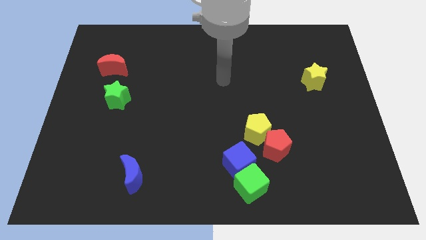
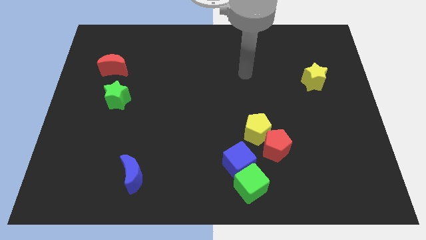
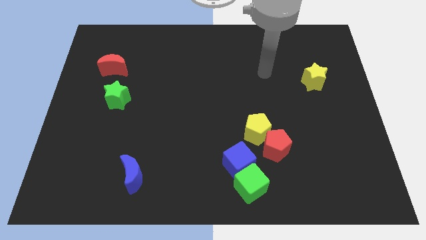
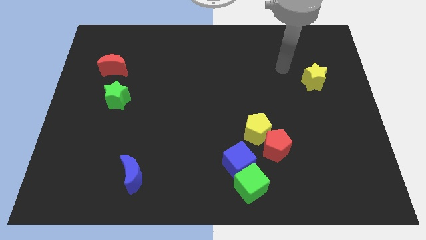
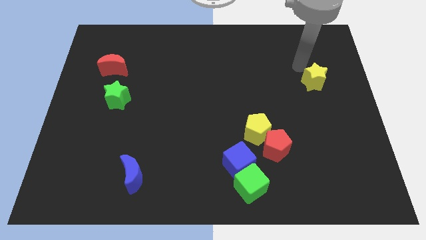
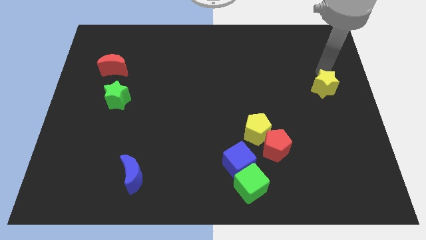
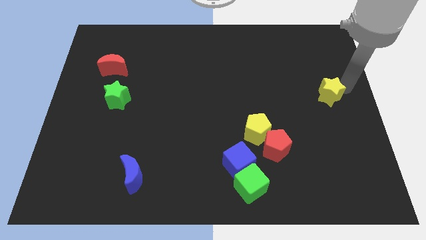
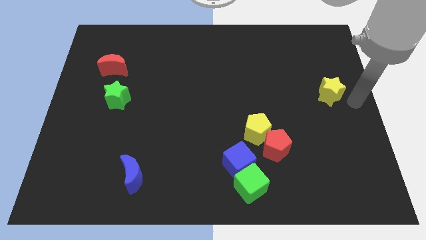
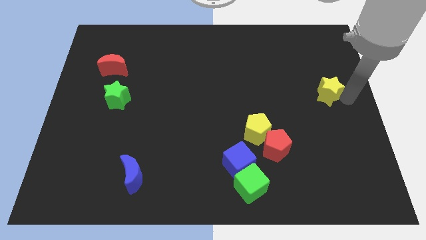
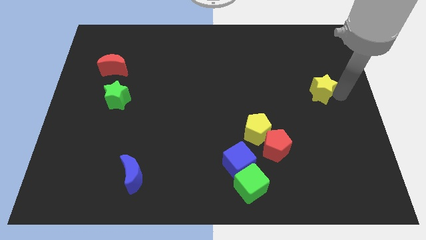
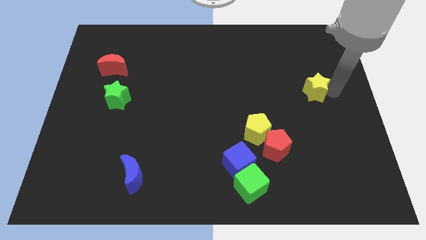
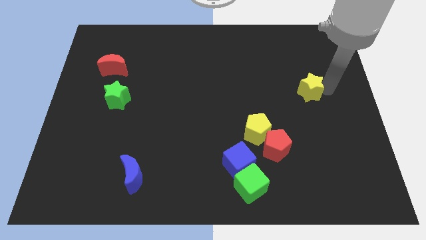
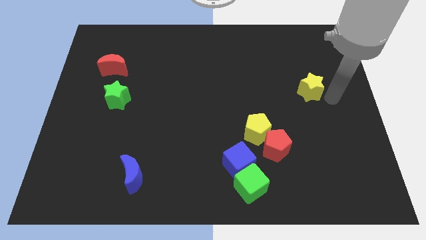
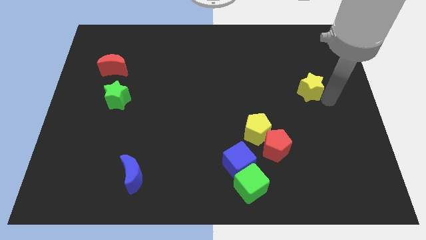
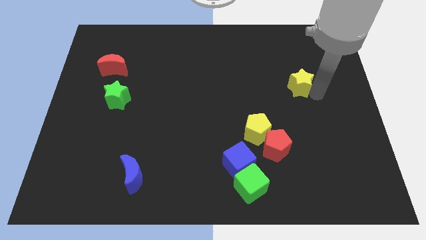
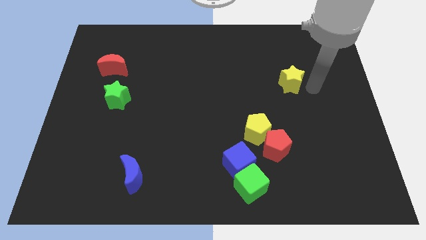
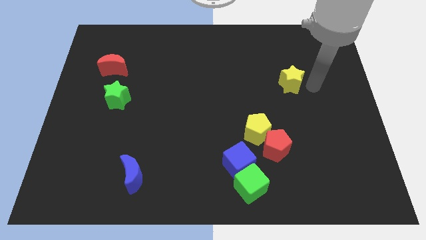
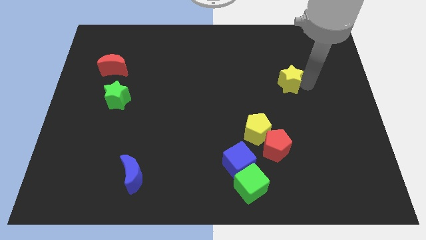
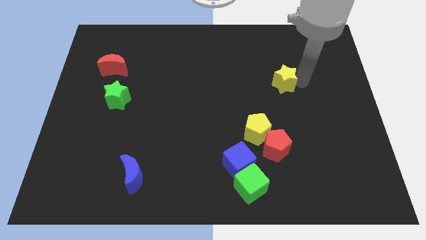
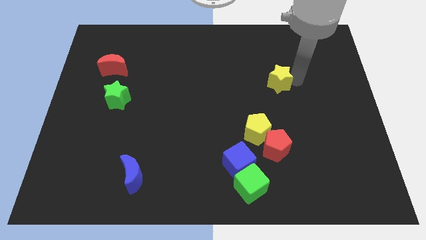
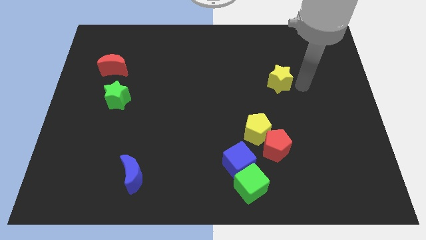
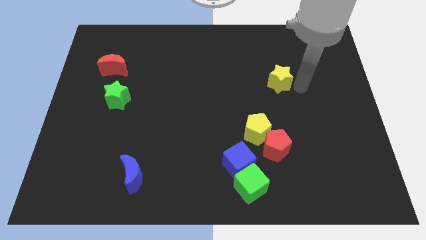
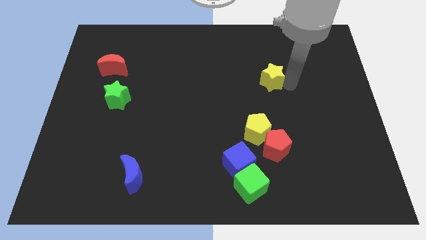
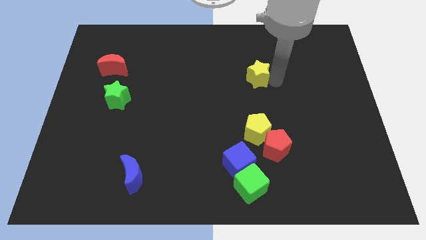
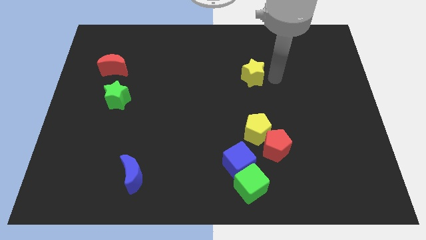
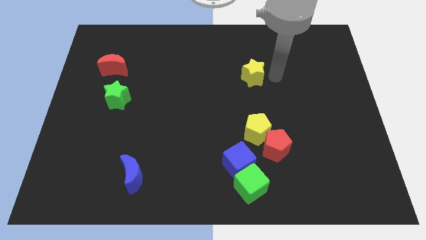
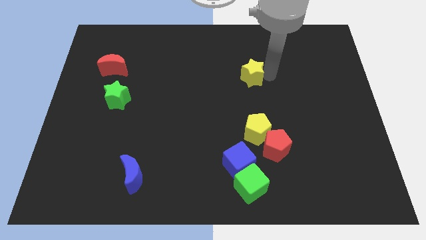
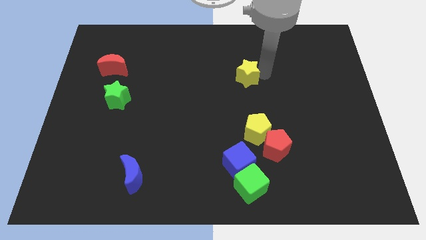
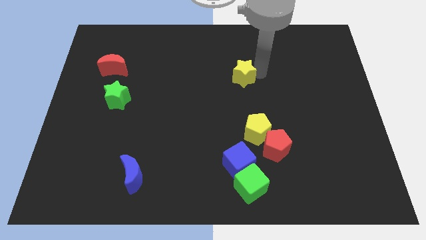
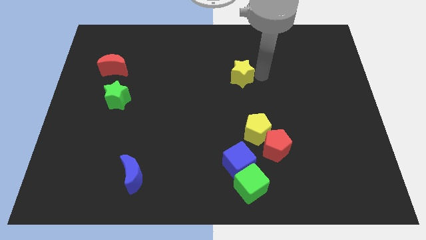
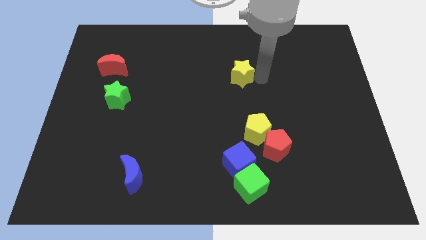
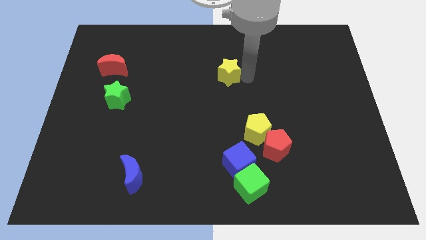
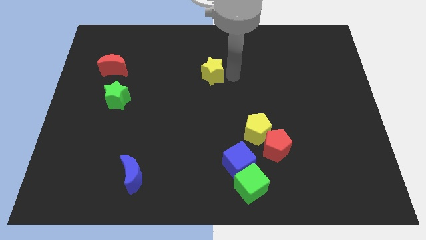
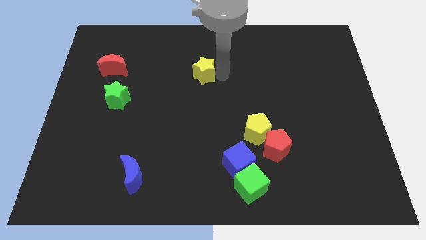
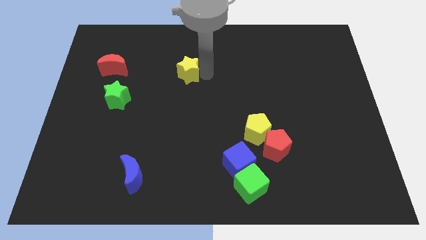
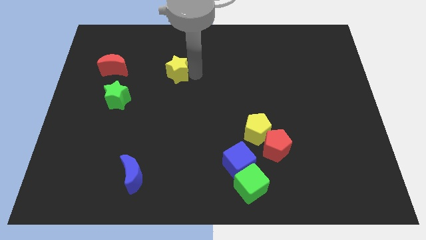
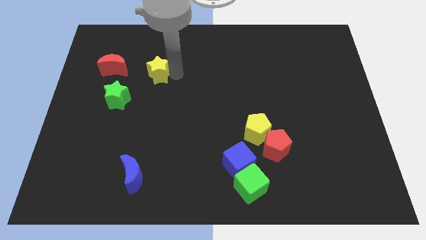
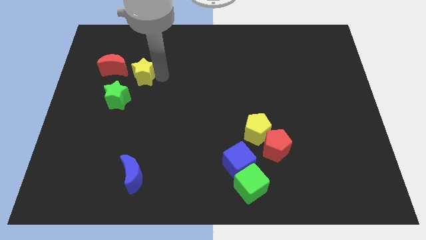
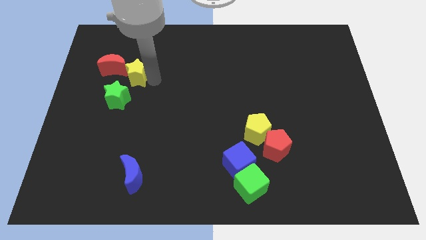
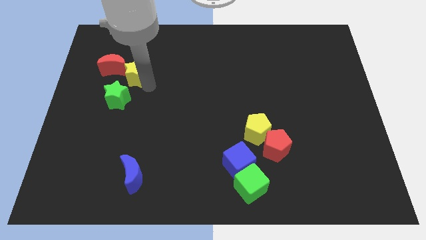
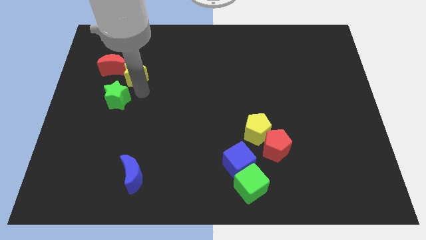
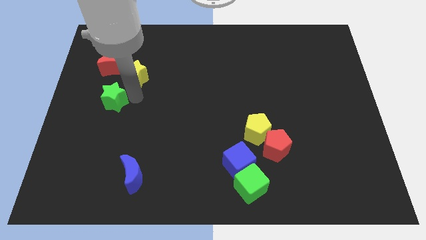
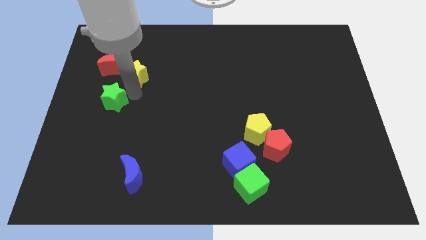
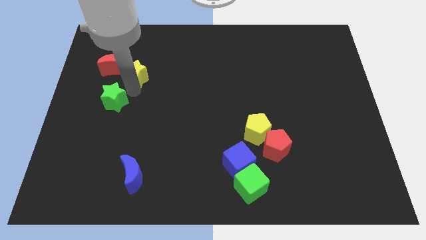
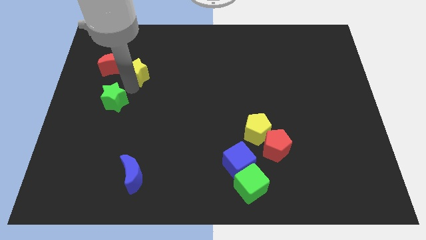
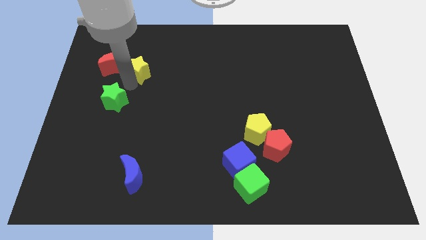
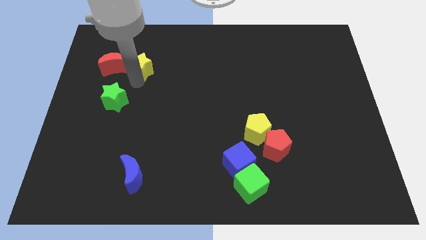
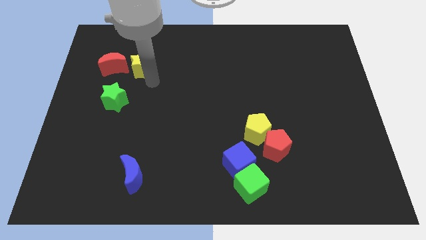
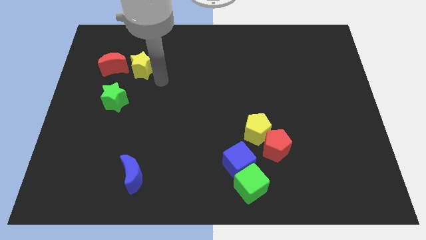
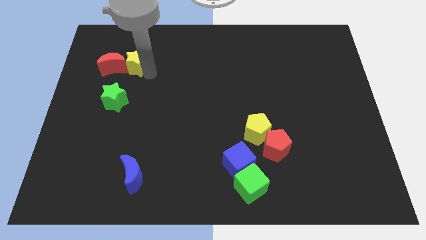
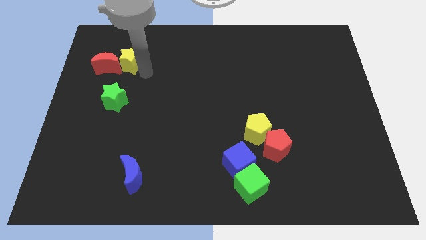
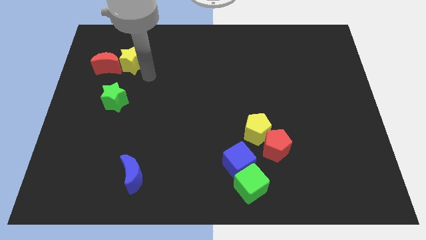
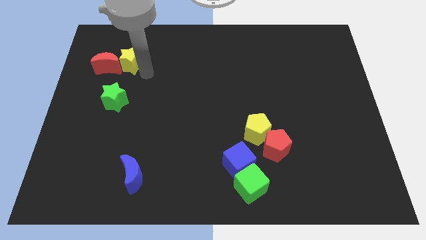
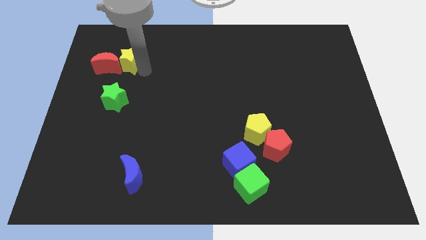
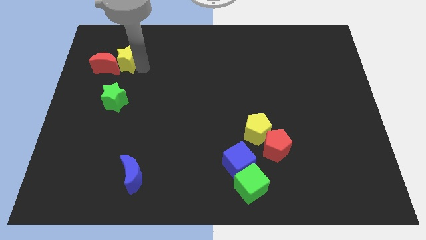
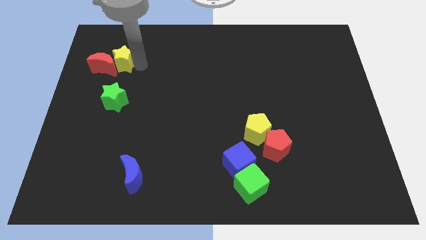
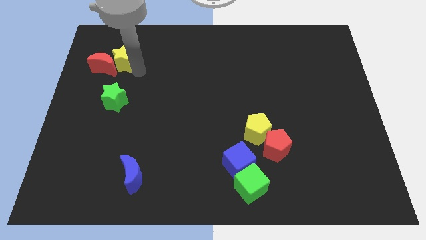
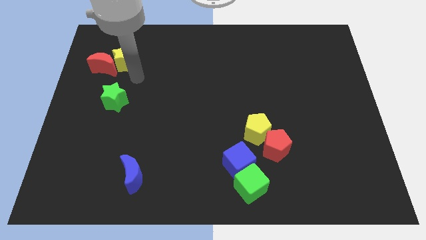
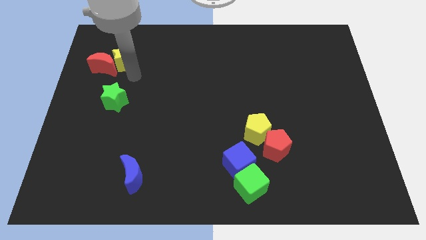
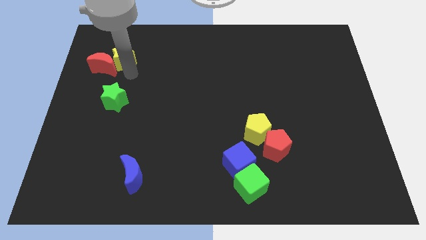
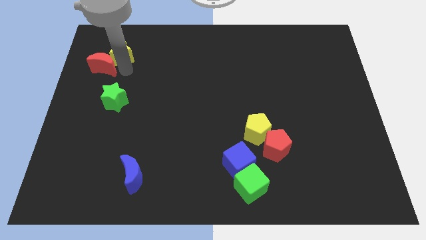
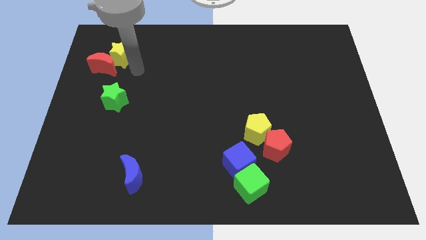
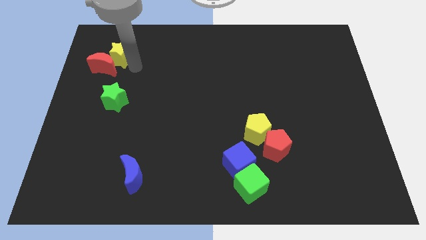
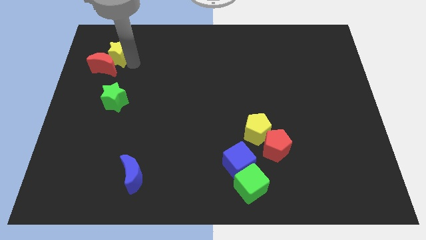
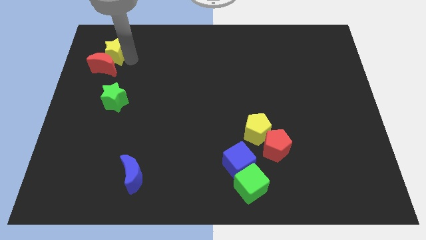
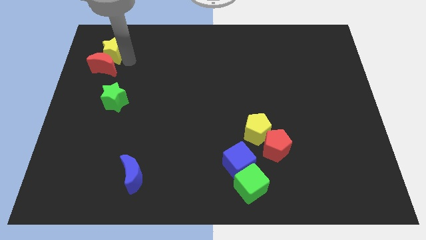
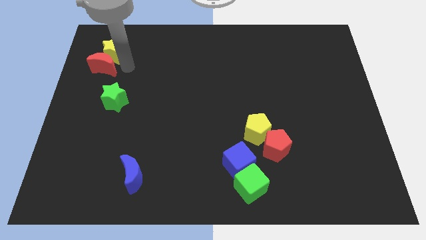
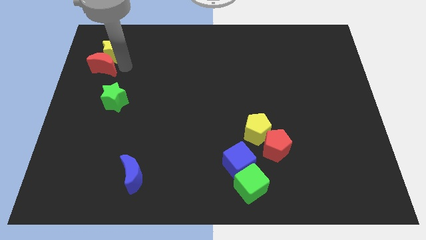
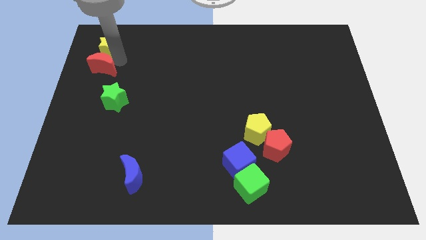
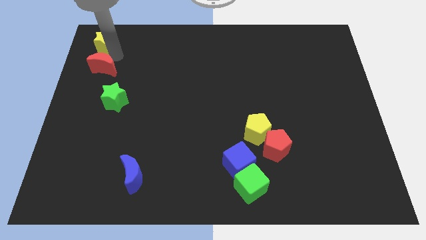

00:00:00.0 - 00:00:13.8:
move the yellow star to the upper left corner
